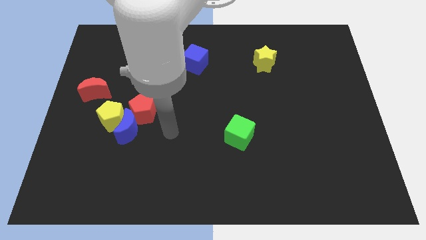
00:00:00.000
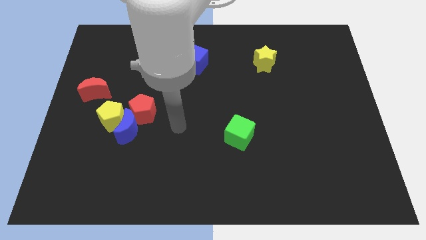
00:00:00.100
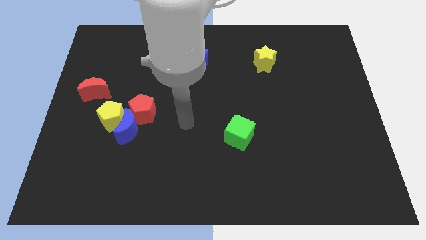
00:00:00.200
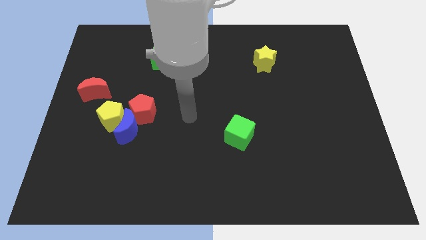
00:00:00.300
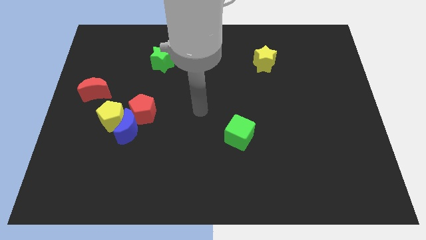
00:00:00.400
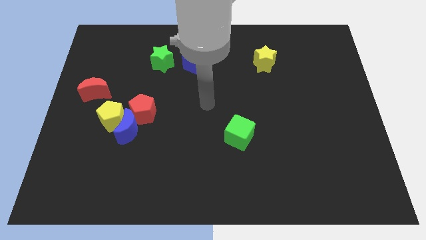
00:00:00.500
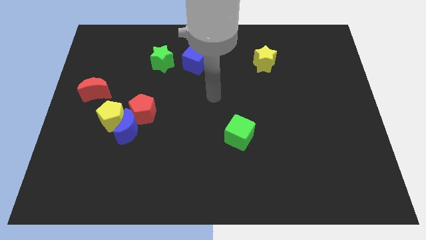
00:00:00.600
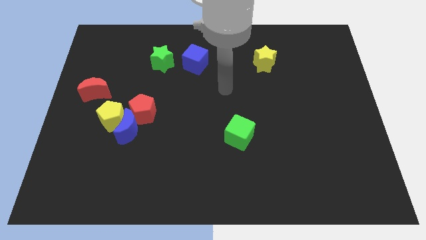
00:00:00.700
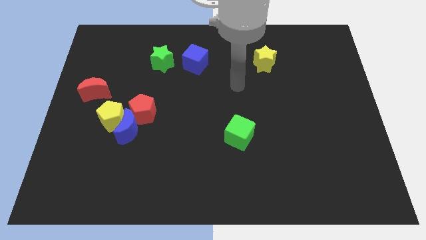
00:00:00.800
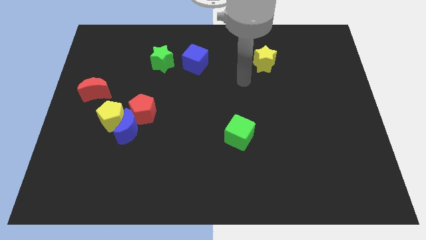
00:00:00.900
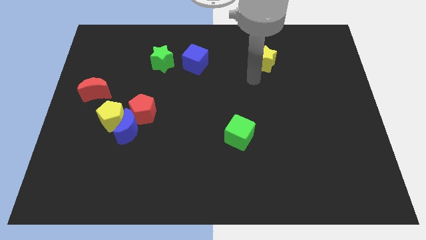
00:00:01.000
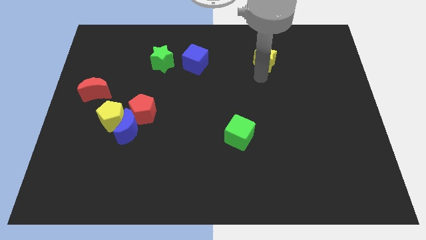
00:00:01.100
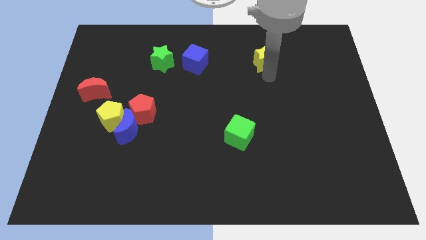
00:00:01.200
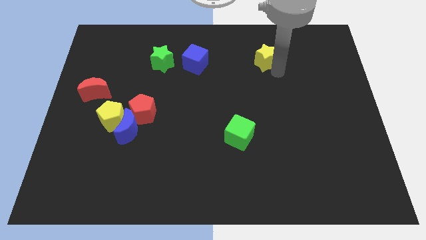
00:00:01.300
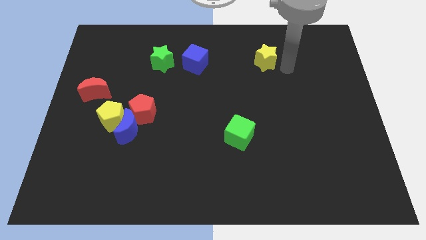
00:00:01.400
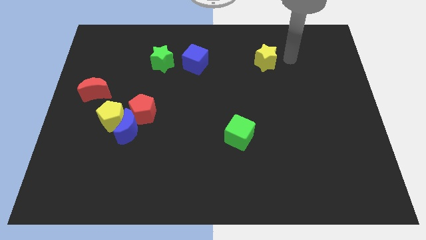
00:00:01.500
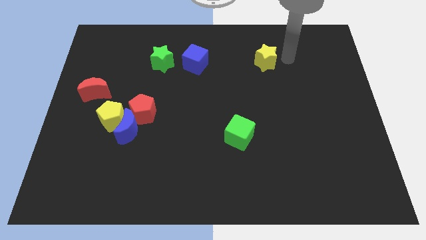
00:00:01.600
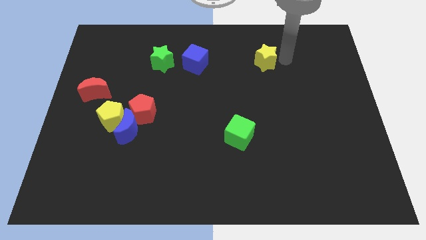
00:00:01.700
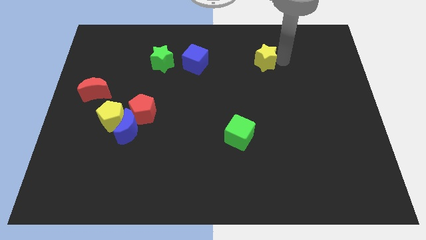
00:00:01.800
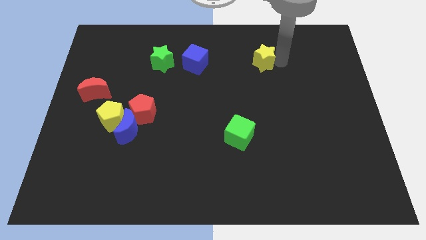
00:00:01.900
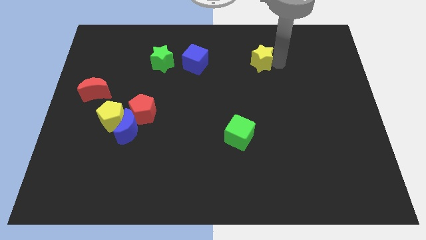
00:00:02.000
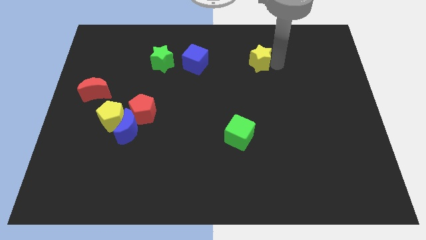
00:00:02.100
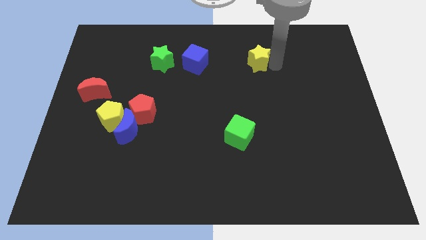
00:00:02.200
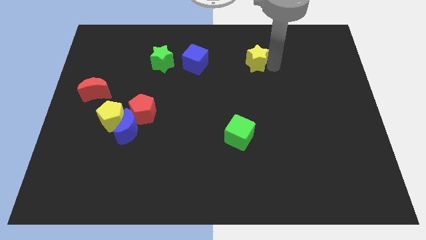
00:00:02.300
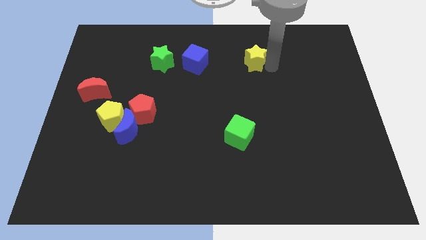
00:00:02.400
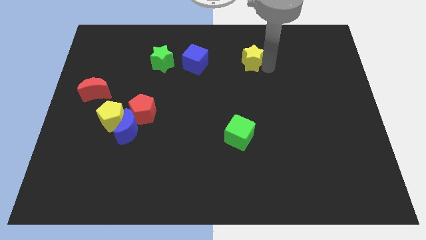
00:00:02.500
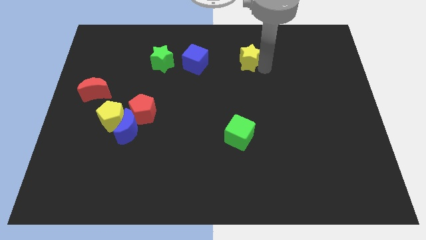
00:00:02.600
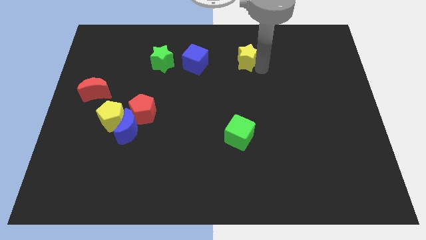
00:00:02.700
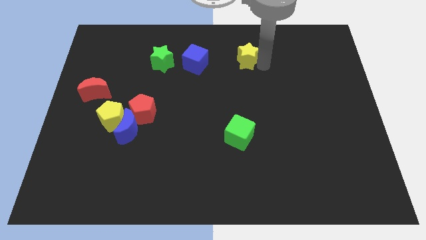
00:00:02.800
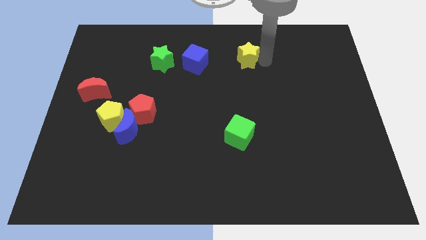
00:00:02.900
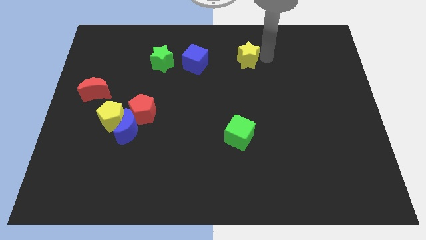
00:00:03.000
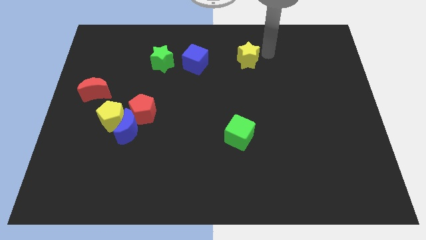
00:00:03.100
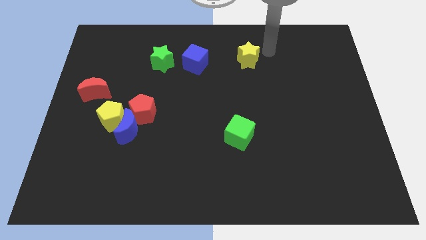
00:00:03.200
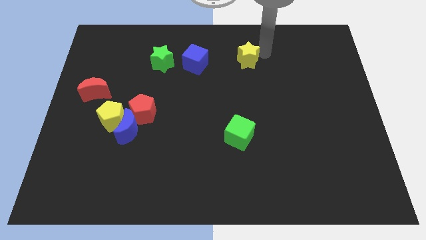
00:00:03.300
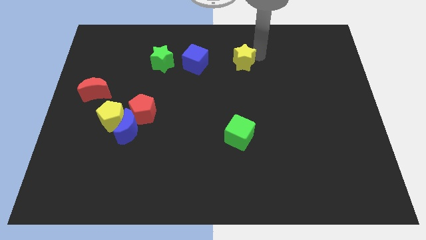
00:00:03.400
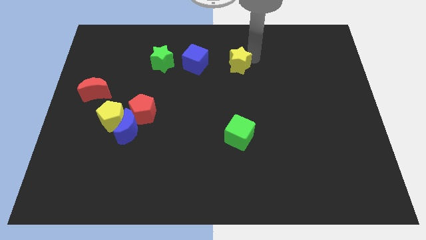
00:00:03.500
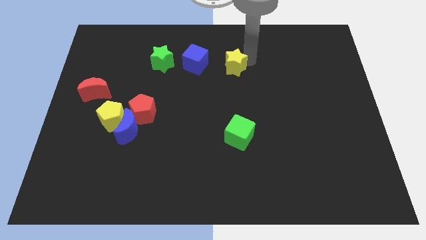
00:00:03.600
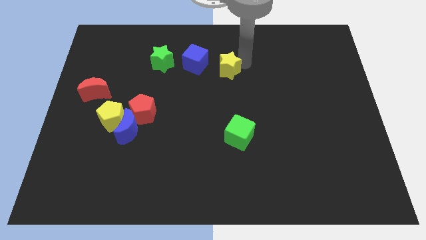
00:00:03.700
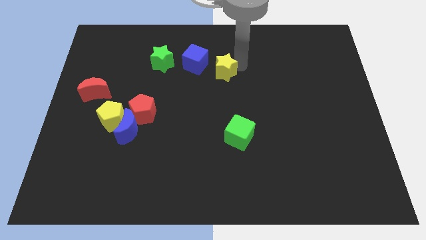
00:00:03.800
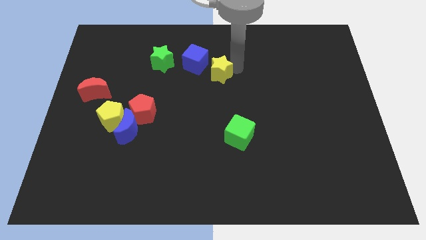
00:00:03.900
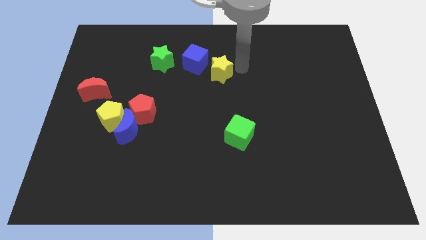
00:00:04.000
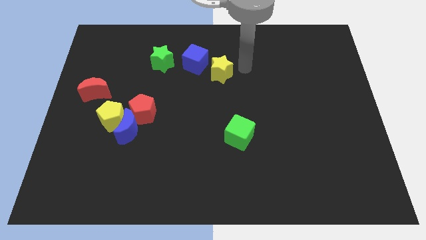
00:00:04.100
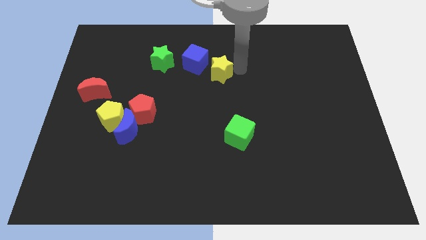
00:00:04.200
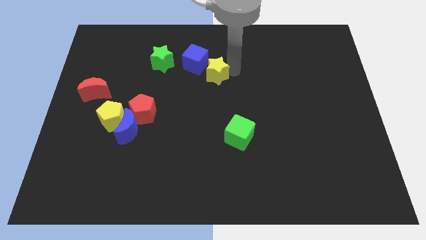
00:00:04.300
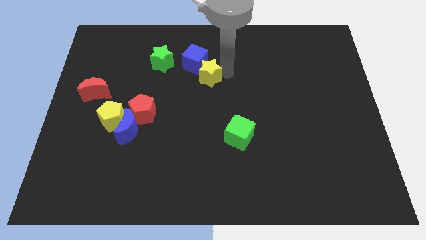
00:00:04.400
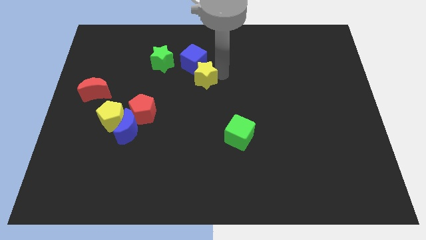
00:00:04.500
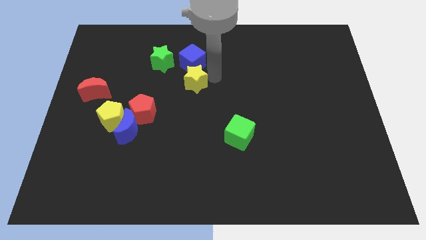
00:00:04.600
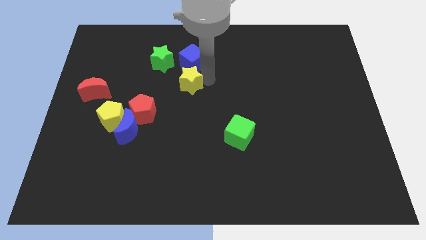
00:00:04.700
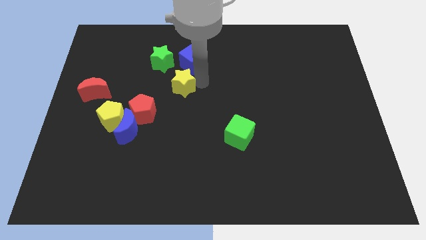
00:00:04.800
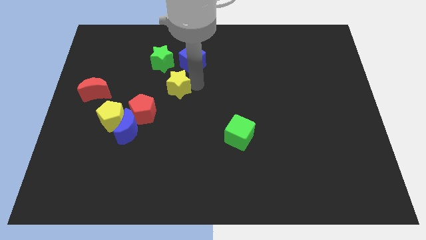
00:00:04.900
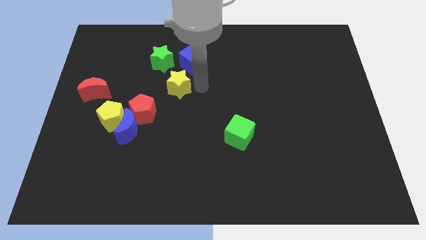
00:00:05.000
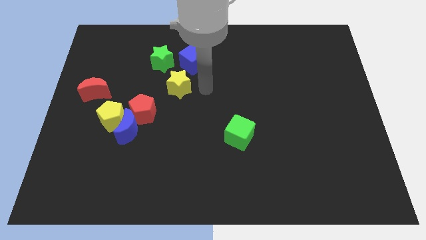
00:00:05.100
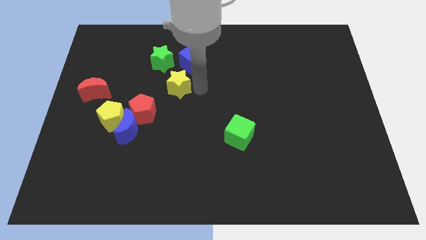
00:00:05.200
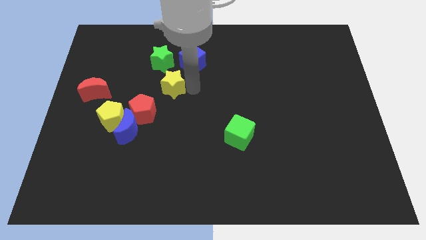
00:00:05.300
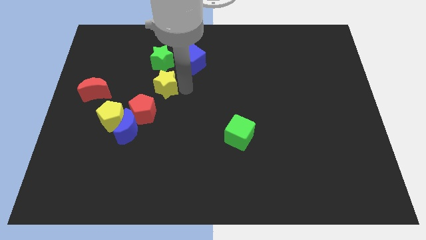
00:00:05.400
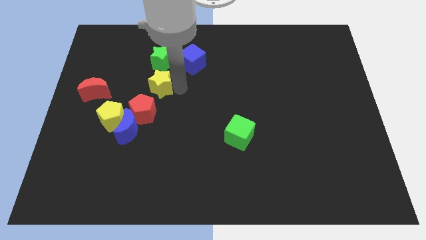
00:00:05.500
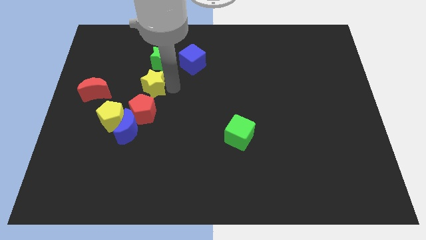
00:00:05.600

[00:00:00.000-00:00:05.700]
put the yellow star above the blue moon

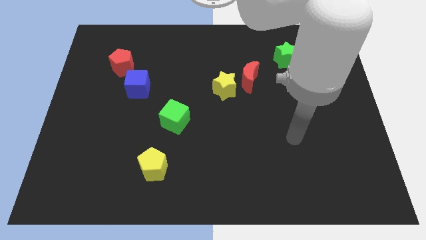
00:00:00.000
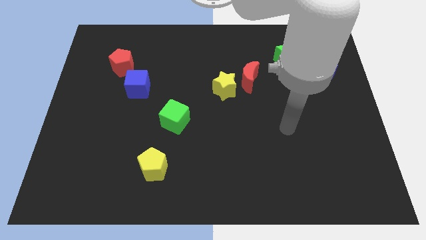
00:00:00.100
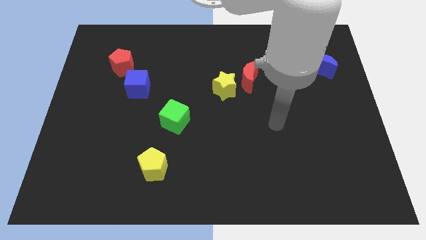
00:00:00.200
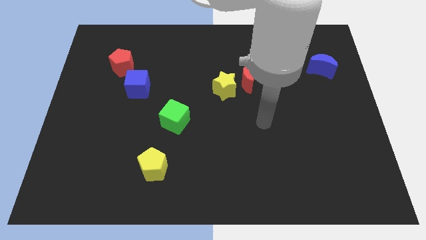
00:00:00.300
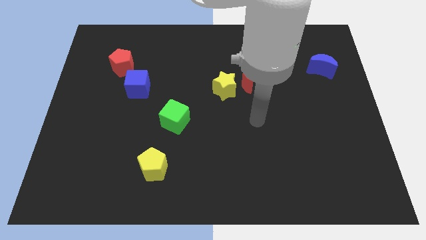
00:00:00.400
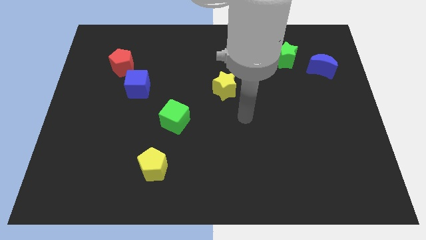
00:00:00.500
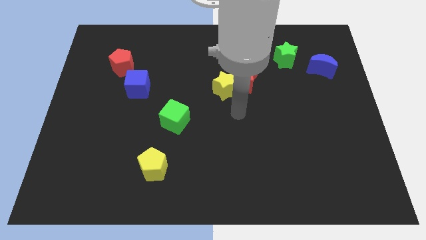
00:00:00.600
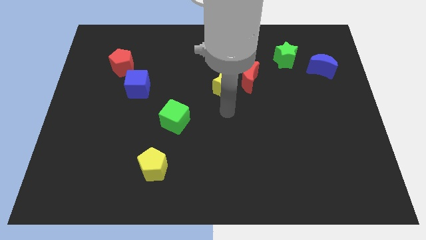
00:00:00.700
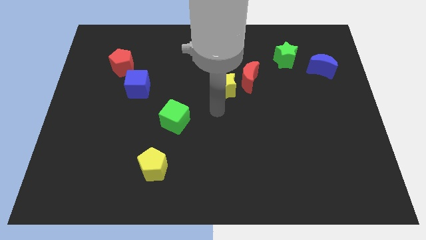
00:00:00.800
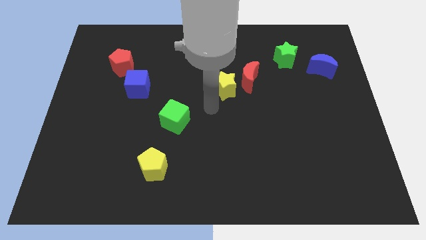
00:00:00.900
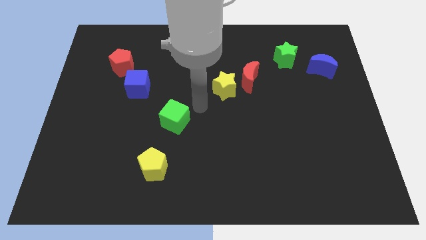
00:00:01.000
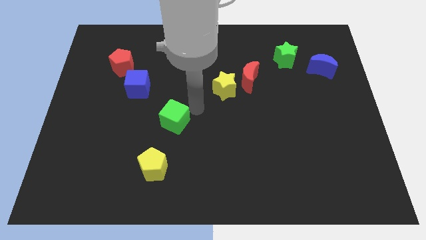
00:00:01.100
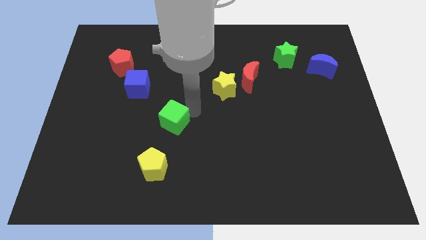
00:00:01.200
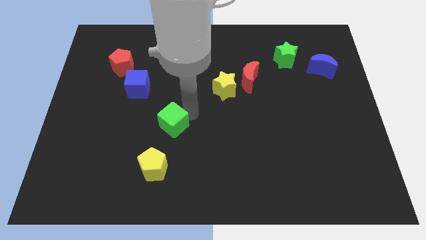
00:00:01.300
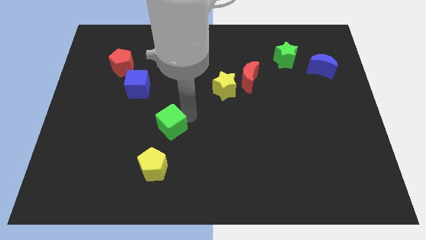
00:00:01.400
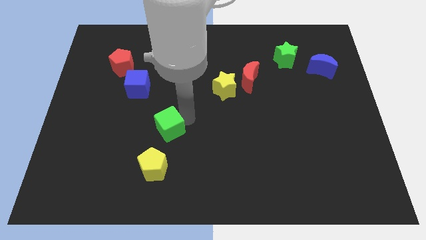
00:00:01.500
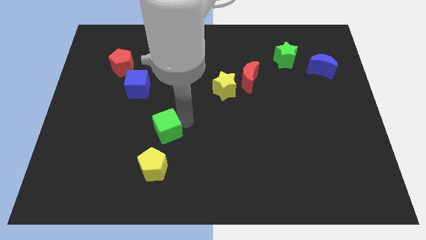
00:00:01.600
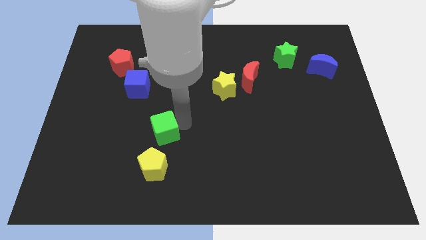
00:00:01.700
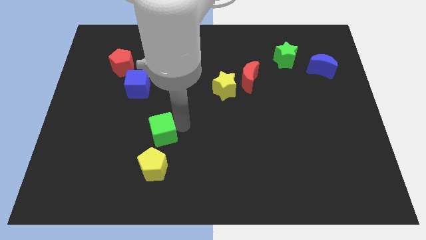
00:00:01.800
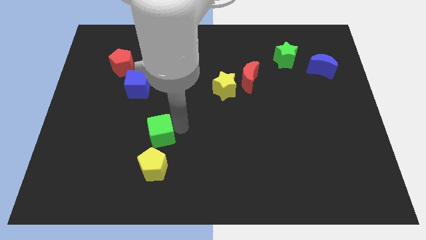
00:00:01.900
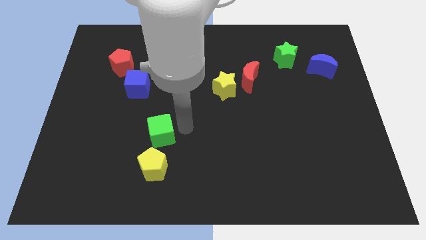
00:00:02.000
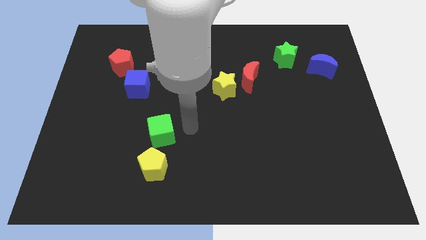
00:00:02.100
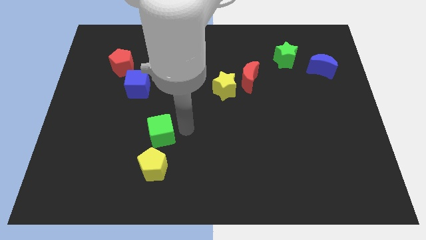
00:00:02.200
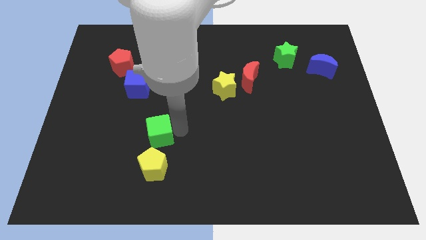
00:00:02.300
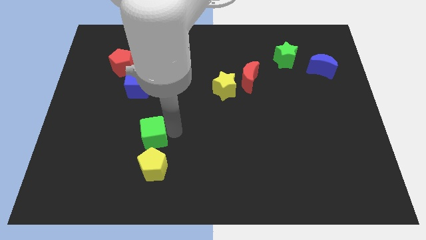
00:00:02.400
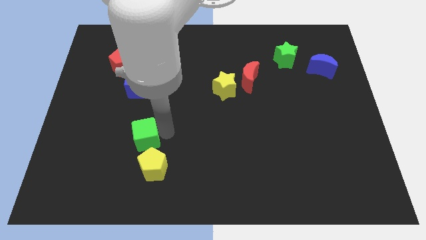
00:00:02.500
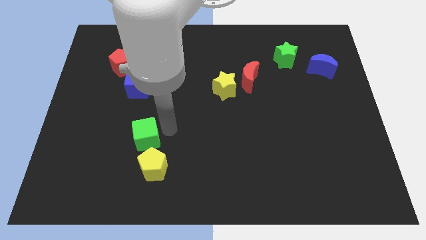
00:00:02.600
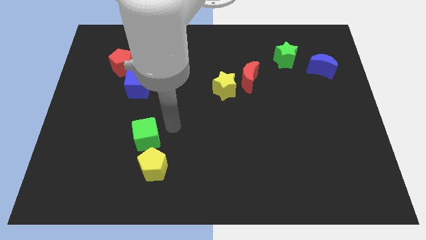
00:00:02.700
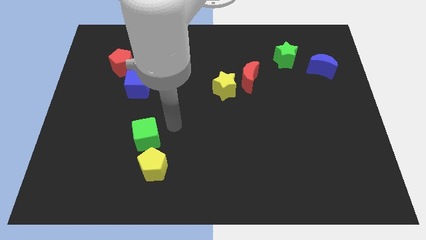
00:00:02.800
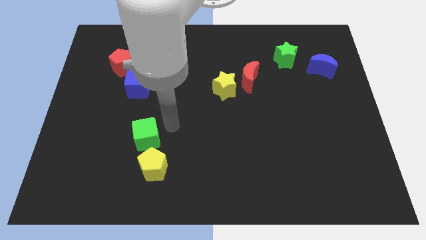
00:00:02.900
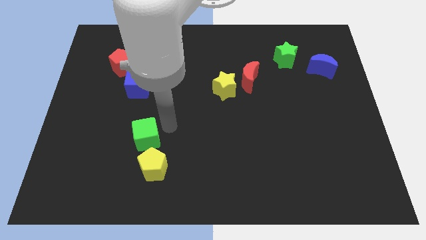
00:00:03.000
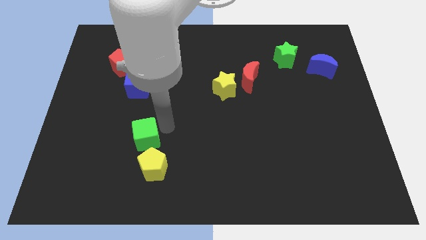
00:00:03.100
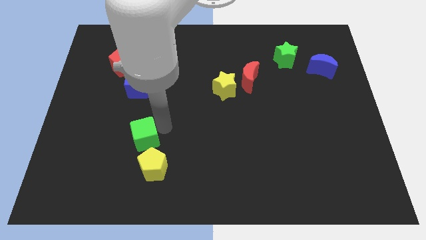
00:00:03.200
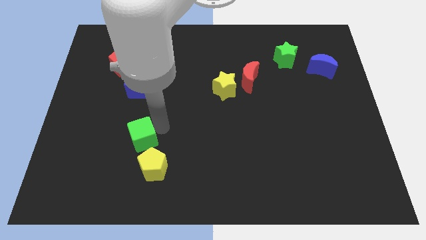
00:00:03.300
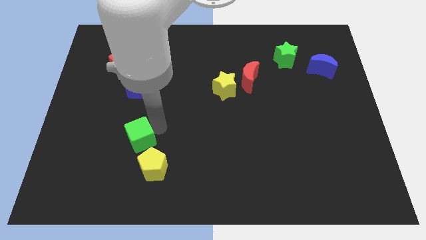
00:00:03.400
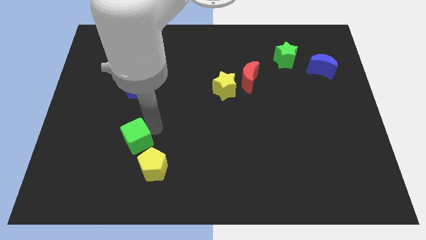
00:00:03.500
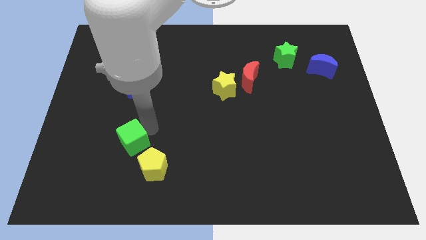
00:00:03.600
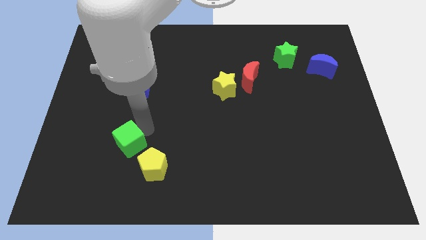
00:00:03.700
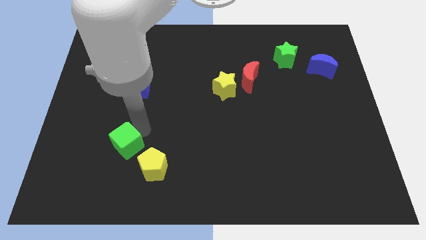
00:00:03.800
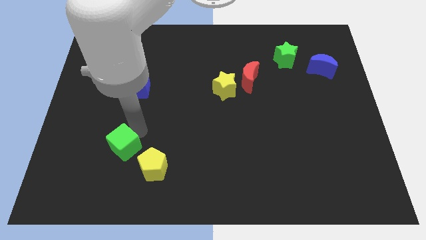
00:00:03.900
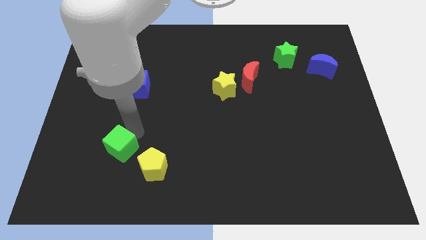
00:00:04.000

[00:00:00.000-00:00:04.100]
slide the green cube just left of the yellow pentagon
